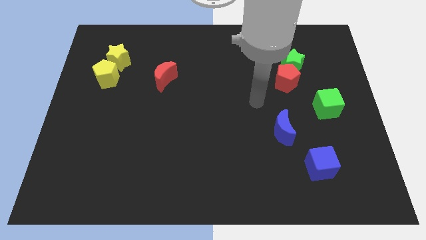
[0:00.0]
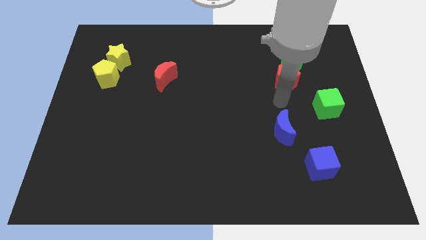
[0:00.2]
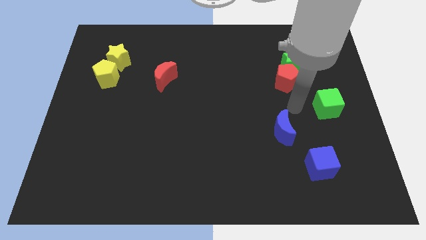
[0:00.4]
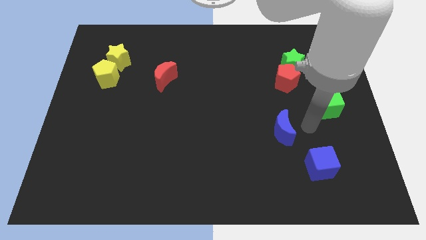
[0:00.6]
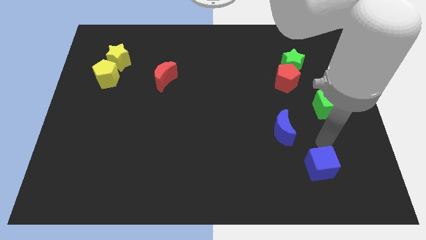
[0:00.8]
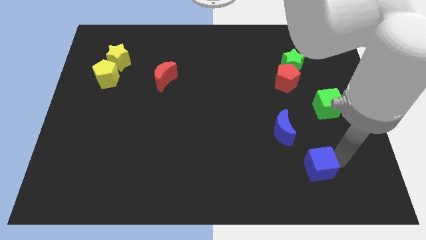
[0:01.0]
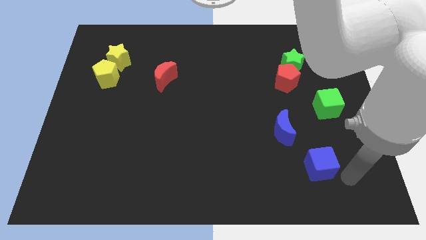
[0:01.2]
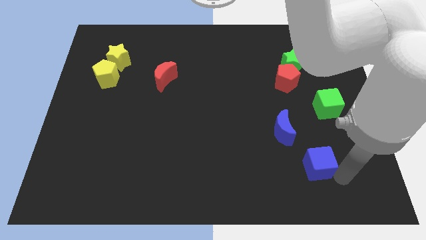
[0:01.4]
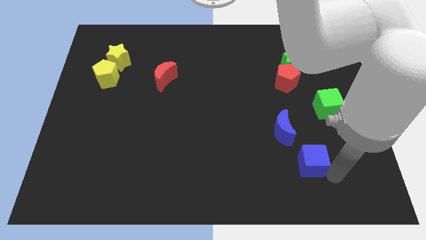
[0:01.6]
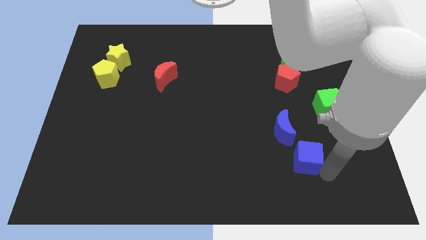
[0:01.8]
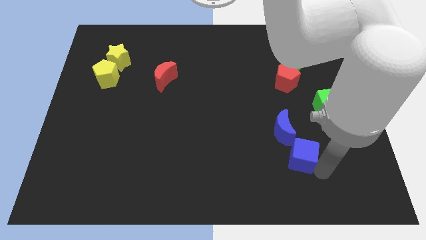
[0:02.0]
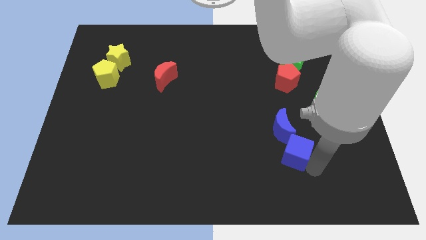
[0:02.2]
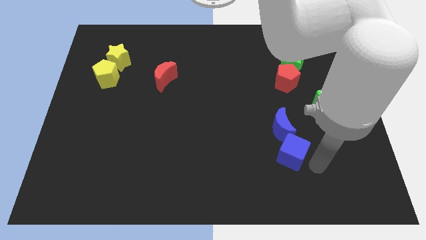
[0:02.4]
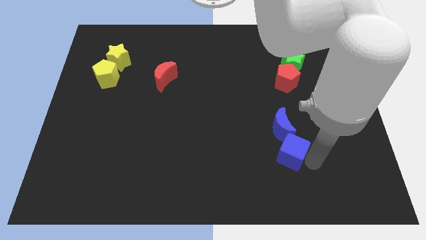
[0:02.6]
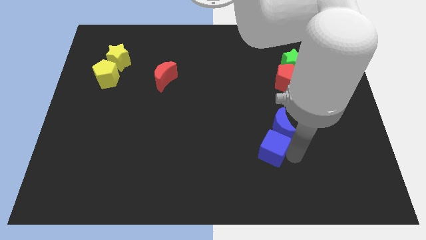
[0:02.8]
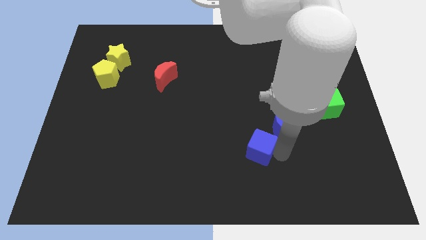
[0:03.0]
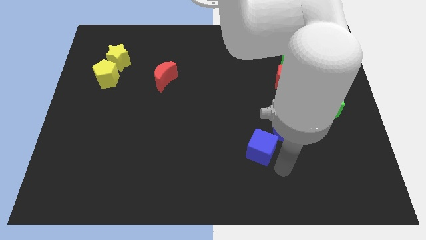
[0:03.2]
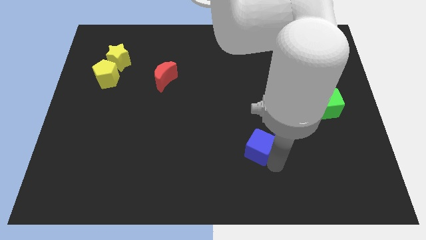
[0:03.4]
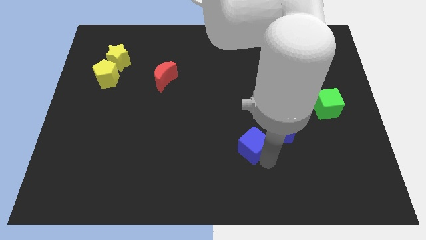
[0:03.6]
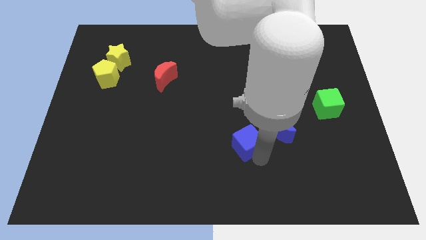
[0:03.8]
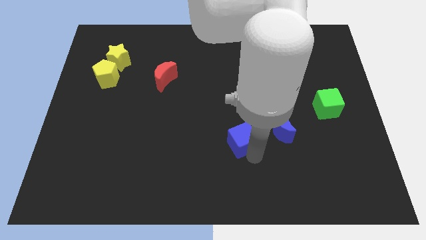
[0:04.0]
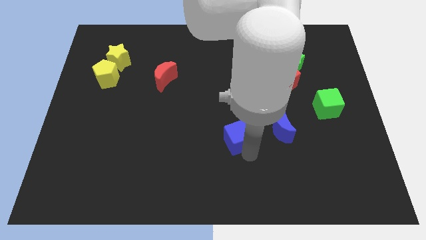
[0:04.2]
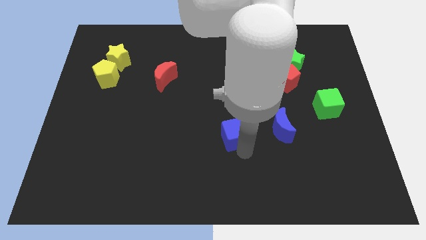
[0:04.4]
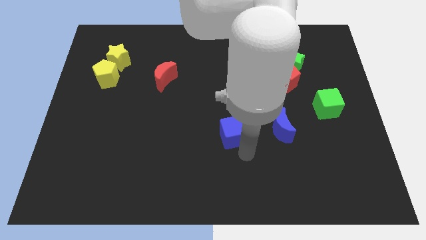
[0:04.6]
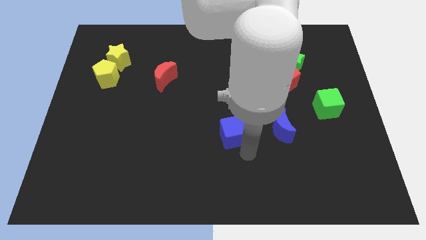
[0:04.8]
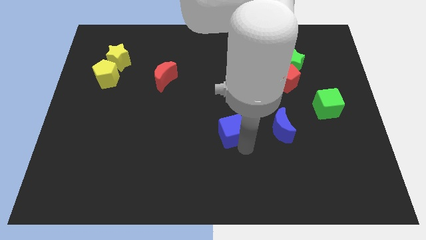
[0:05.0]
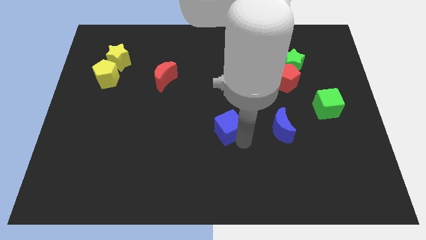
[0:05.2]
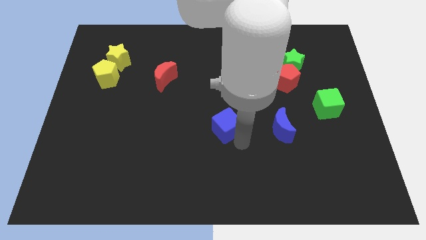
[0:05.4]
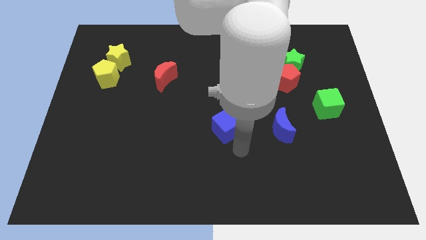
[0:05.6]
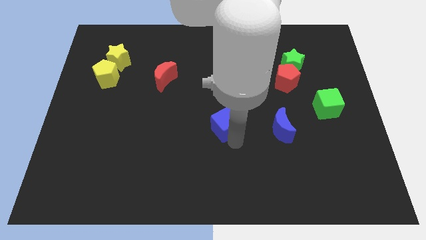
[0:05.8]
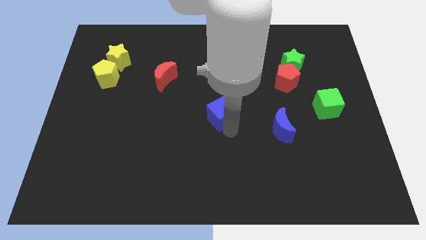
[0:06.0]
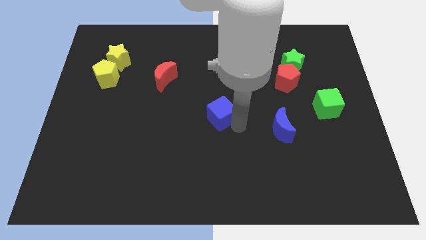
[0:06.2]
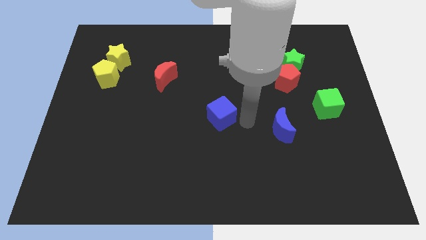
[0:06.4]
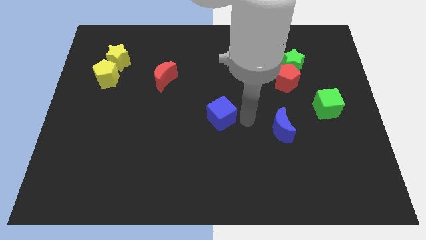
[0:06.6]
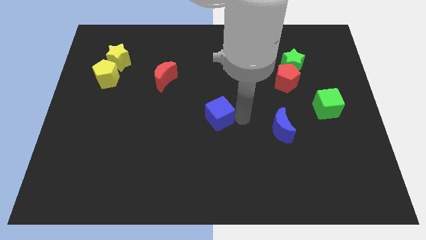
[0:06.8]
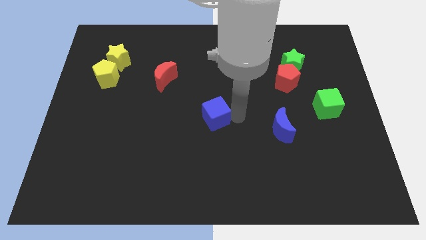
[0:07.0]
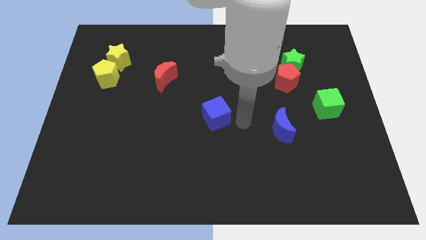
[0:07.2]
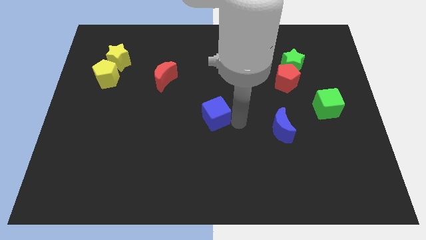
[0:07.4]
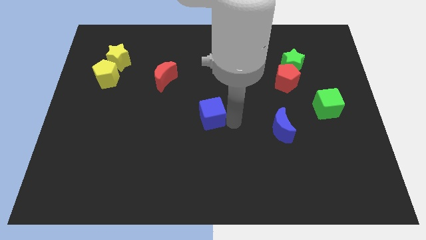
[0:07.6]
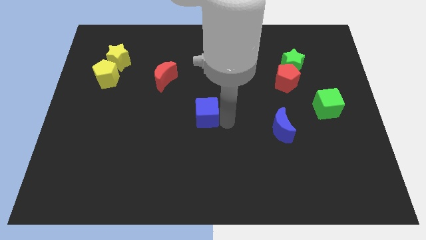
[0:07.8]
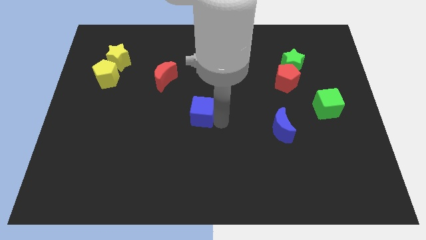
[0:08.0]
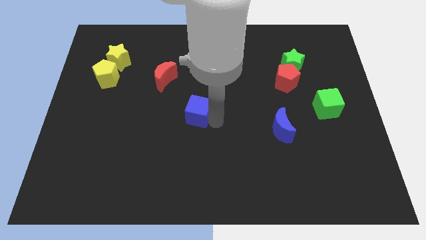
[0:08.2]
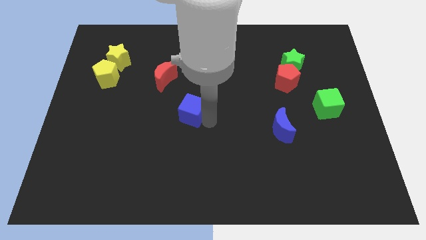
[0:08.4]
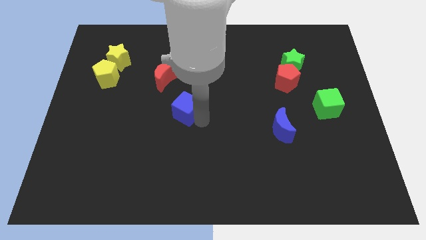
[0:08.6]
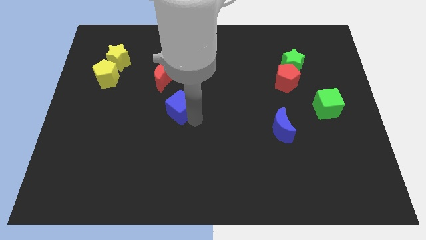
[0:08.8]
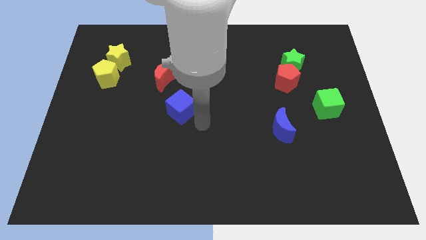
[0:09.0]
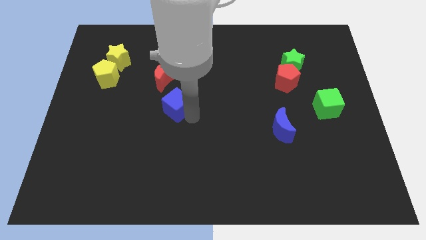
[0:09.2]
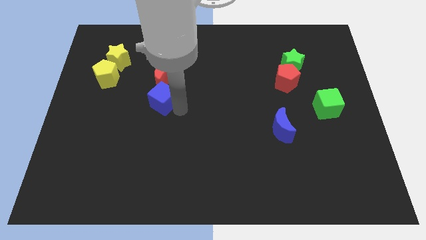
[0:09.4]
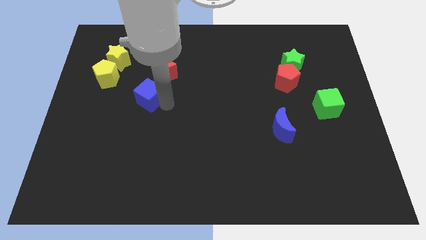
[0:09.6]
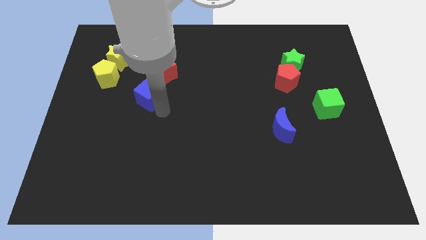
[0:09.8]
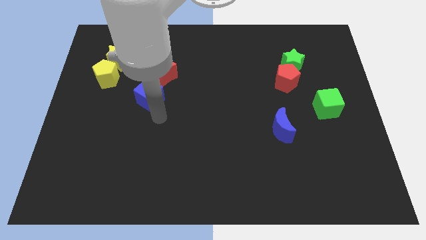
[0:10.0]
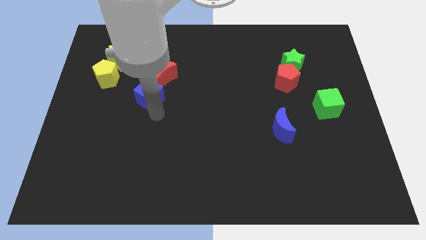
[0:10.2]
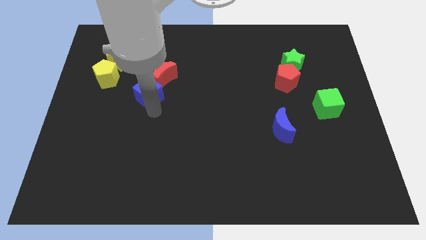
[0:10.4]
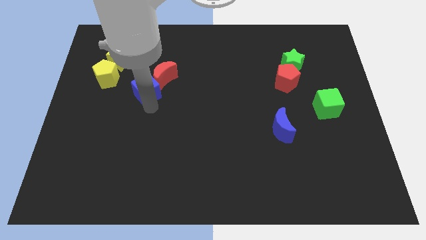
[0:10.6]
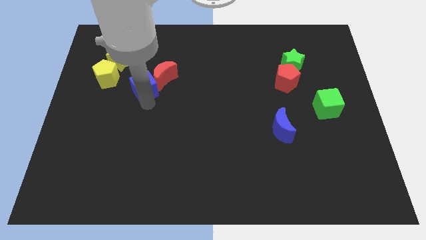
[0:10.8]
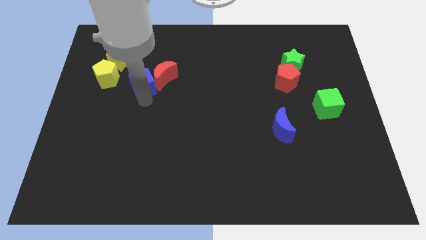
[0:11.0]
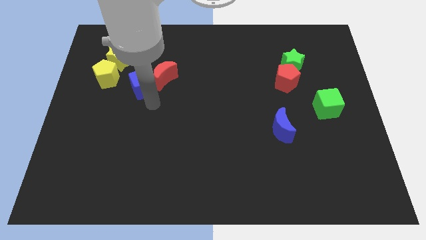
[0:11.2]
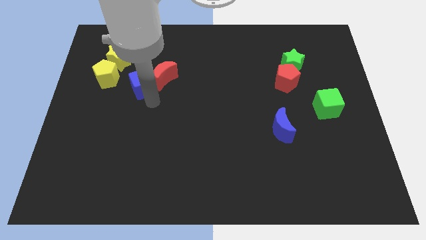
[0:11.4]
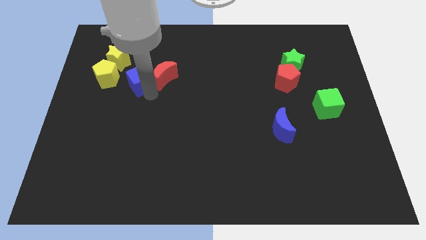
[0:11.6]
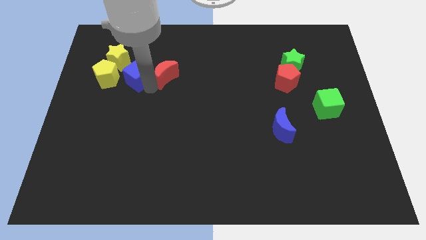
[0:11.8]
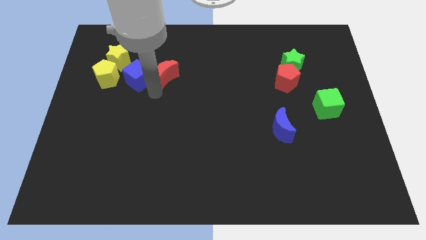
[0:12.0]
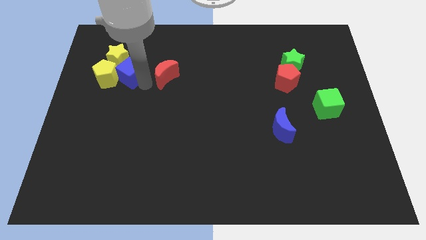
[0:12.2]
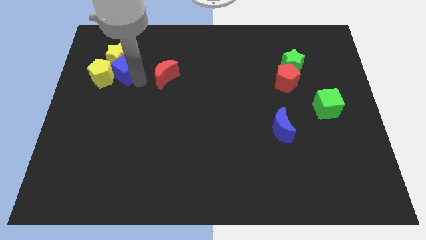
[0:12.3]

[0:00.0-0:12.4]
put the blue cube next to the yellow star

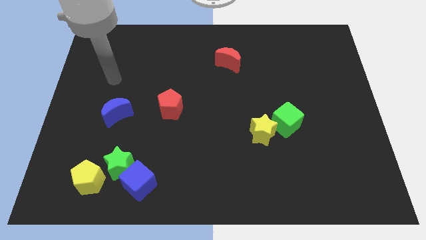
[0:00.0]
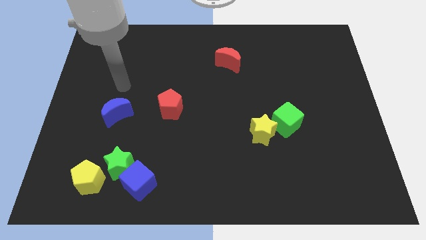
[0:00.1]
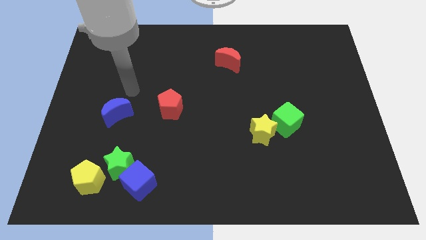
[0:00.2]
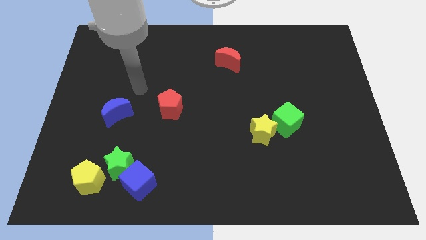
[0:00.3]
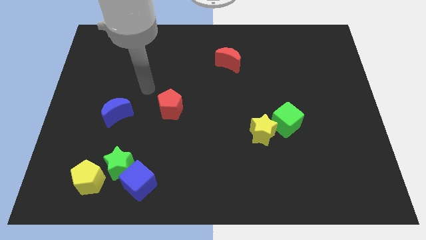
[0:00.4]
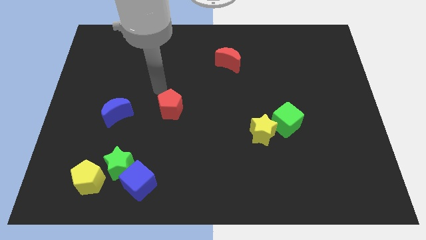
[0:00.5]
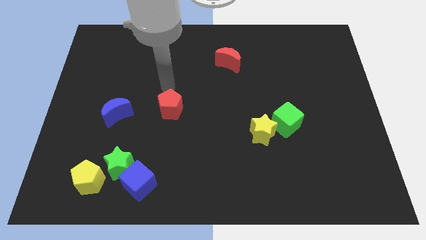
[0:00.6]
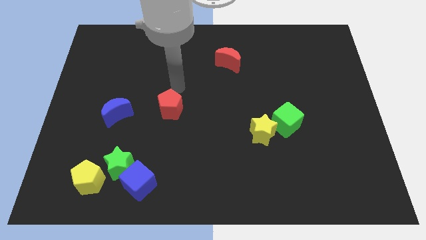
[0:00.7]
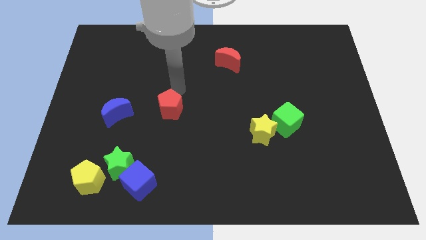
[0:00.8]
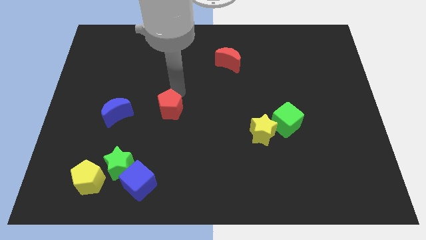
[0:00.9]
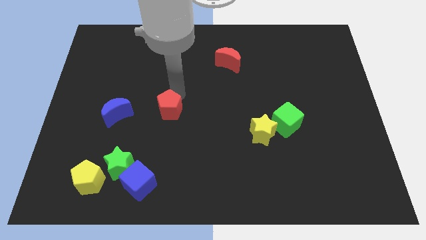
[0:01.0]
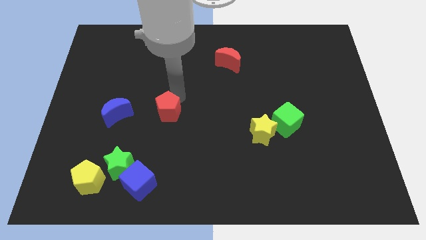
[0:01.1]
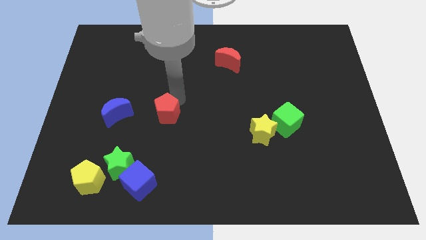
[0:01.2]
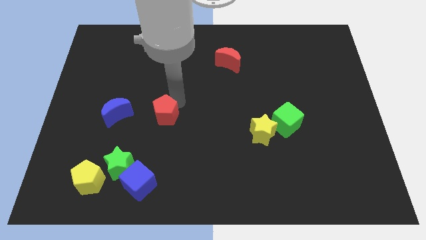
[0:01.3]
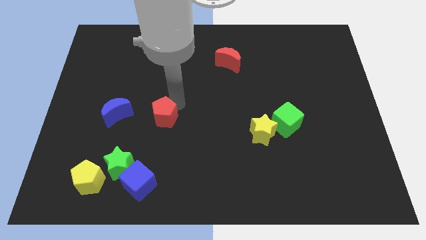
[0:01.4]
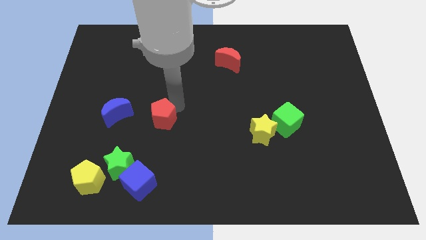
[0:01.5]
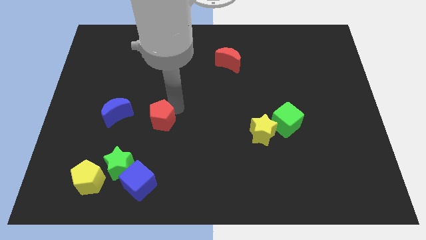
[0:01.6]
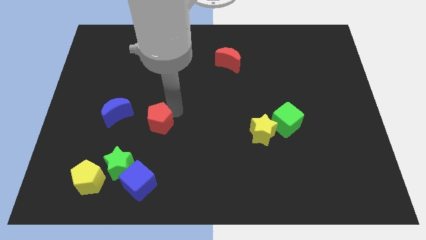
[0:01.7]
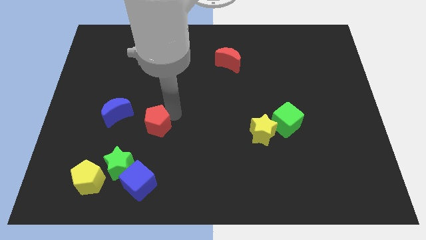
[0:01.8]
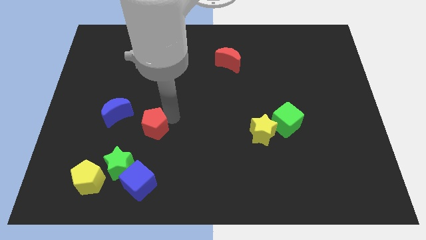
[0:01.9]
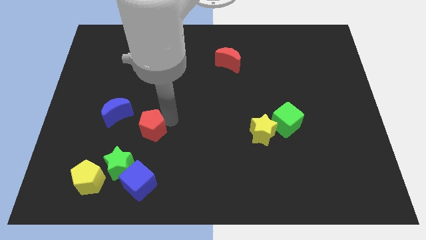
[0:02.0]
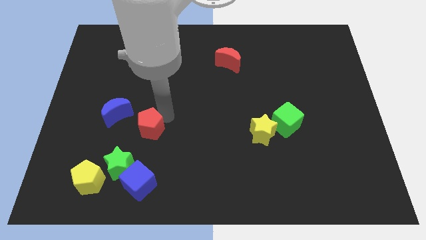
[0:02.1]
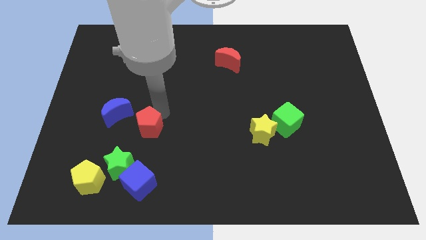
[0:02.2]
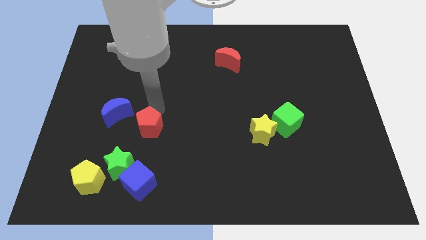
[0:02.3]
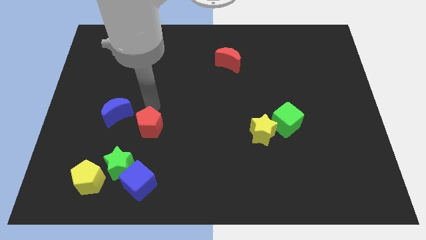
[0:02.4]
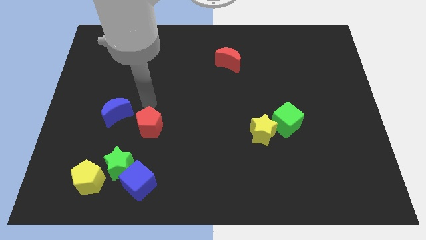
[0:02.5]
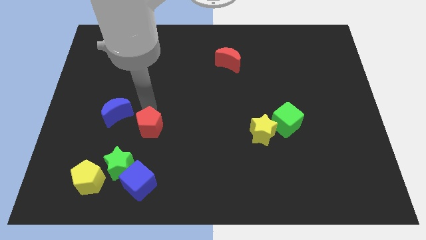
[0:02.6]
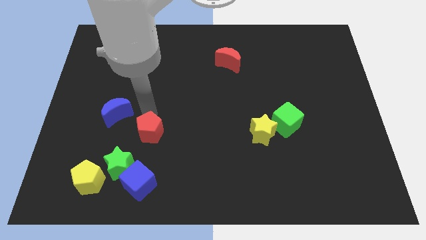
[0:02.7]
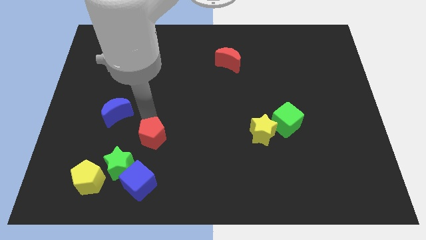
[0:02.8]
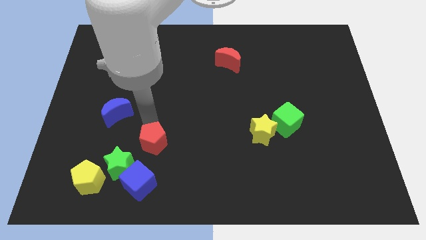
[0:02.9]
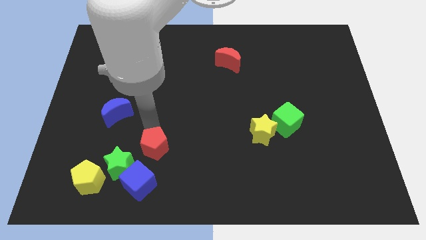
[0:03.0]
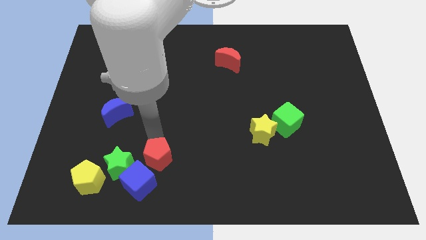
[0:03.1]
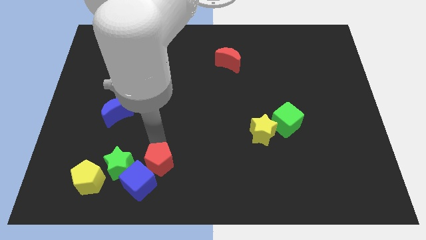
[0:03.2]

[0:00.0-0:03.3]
slide the red pentagon towards the blue cube
